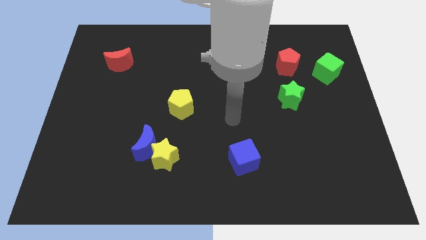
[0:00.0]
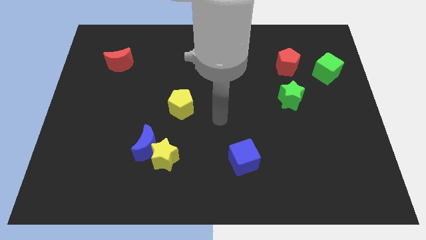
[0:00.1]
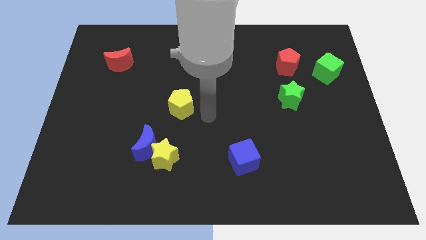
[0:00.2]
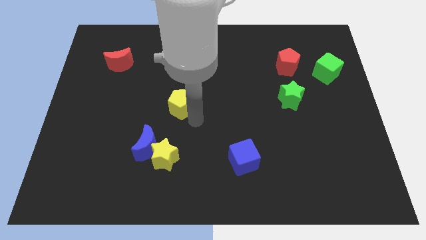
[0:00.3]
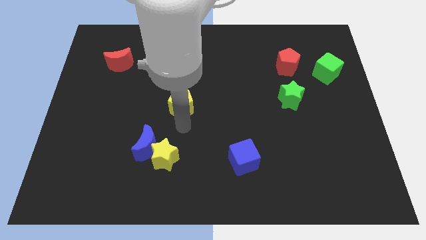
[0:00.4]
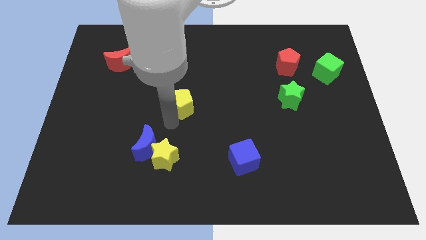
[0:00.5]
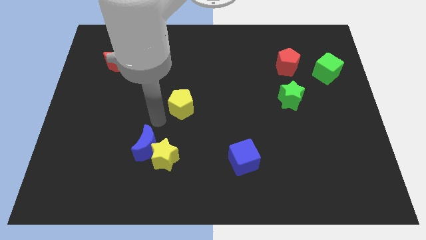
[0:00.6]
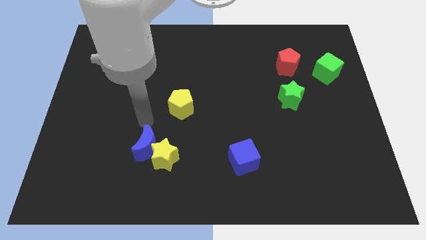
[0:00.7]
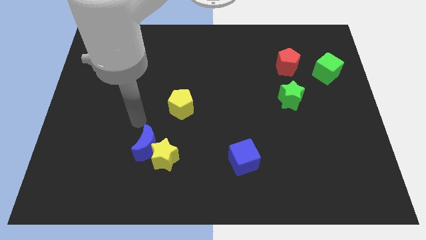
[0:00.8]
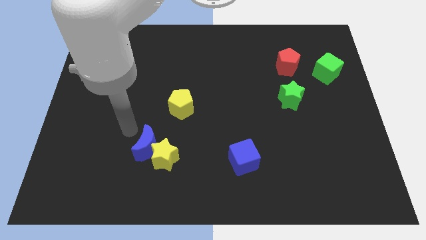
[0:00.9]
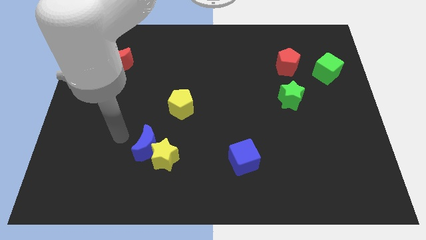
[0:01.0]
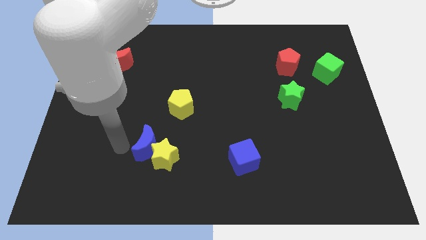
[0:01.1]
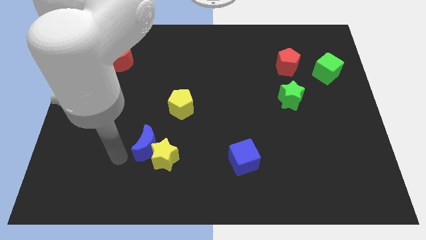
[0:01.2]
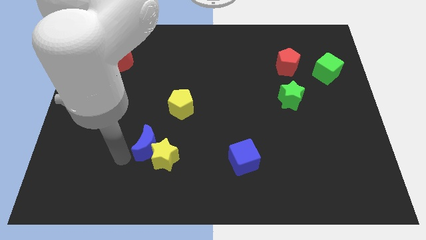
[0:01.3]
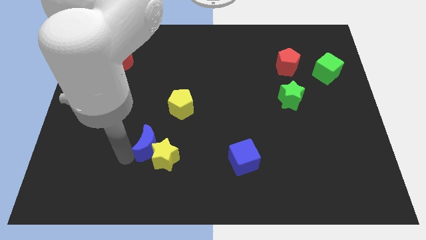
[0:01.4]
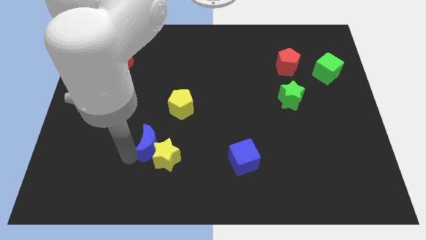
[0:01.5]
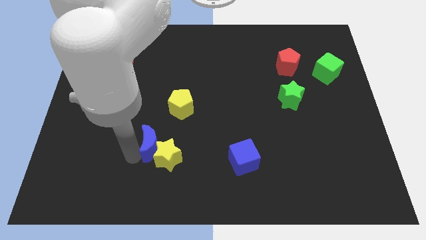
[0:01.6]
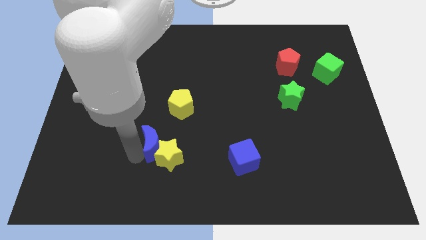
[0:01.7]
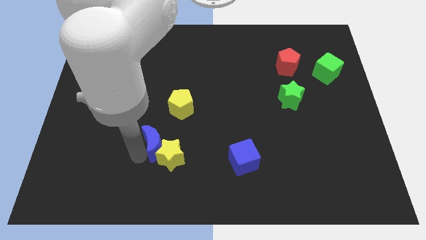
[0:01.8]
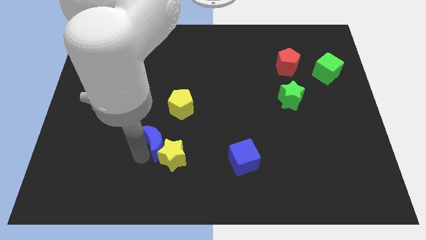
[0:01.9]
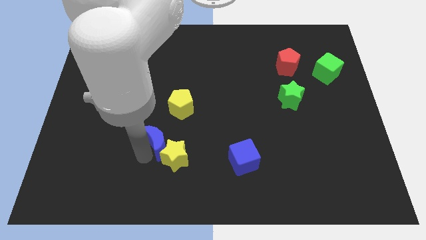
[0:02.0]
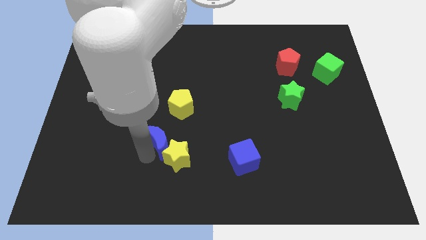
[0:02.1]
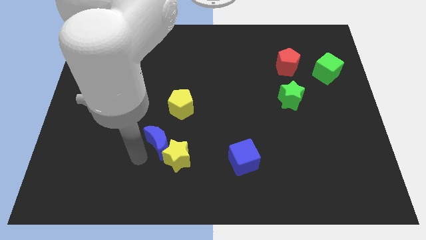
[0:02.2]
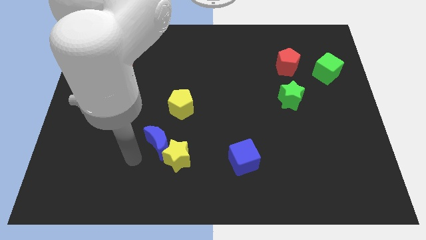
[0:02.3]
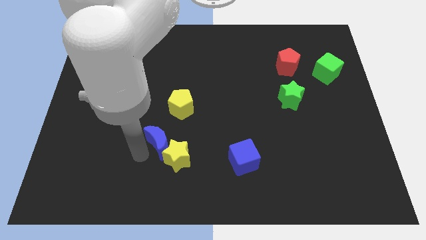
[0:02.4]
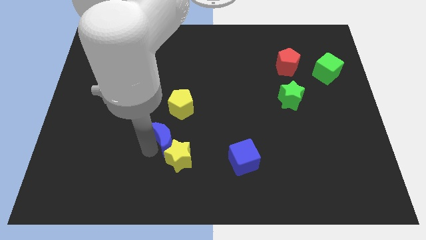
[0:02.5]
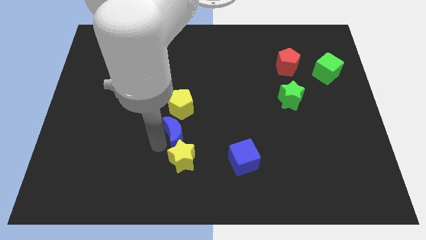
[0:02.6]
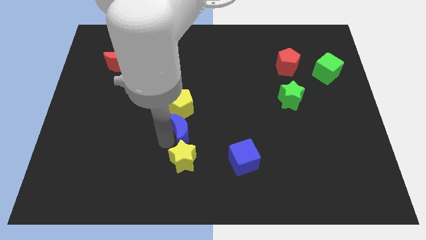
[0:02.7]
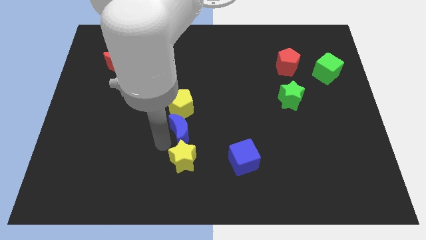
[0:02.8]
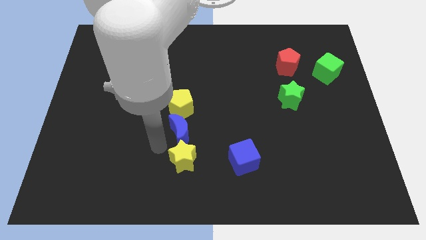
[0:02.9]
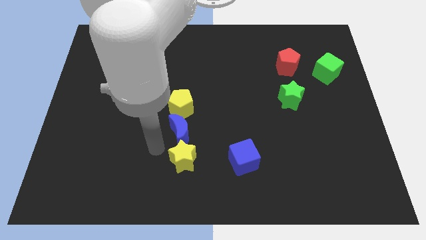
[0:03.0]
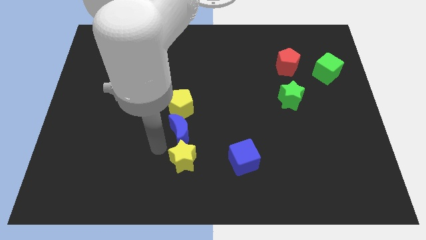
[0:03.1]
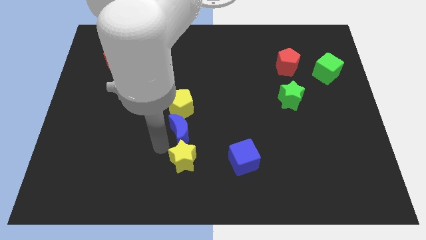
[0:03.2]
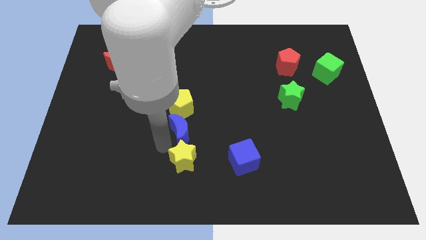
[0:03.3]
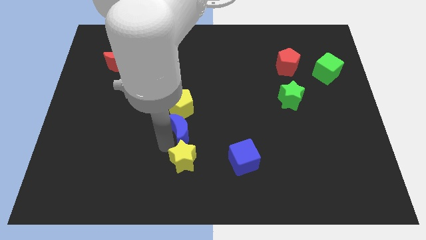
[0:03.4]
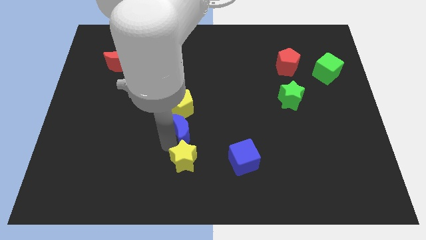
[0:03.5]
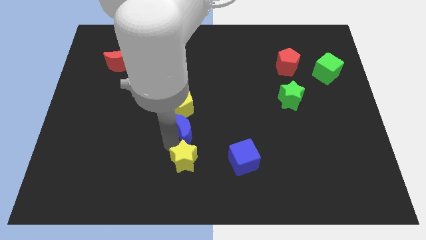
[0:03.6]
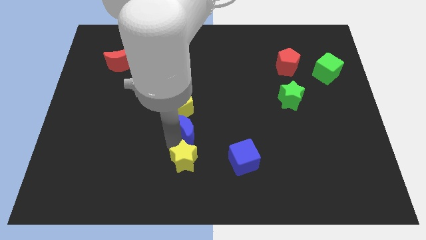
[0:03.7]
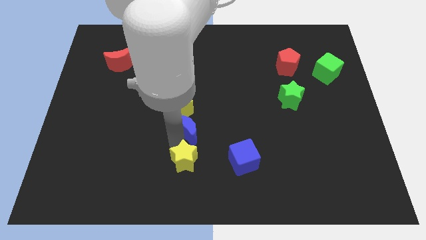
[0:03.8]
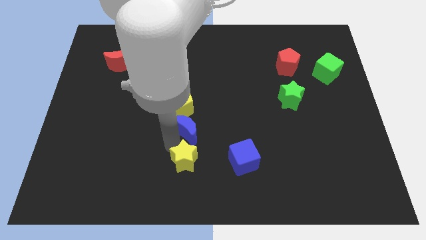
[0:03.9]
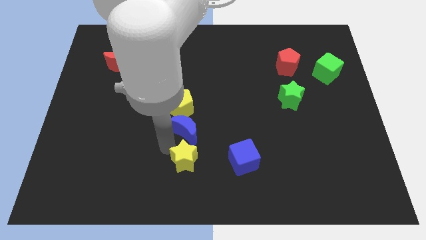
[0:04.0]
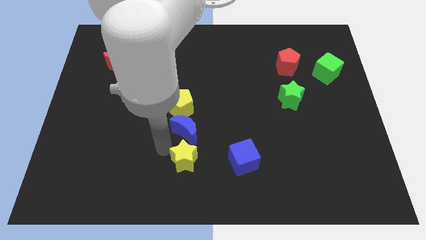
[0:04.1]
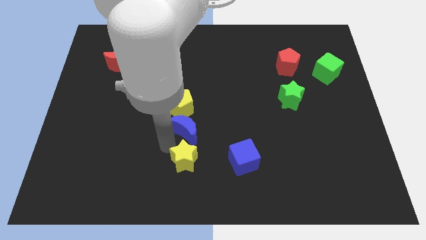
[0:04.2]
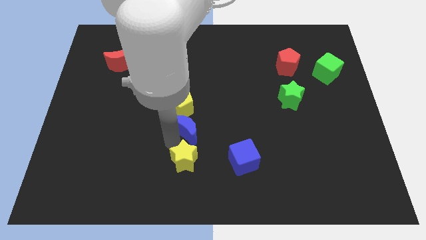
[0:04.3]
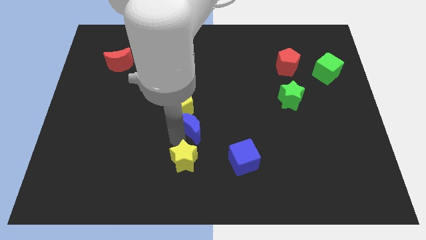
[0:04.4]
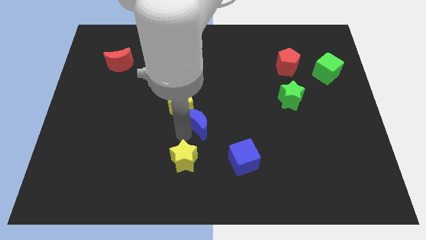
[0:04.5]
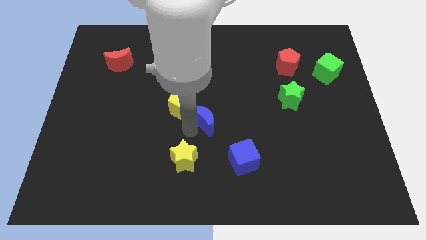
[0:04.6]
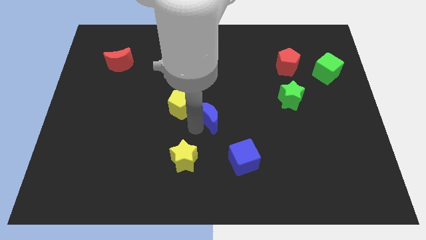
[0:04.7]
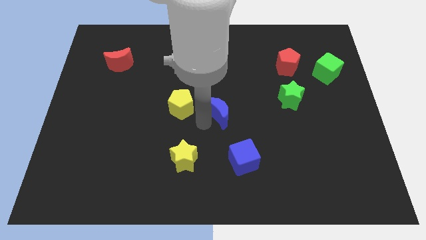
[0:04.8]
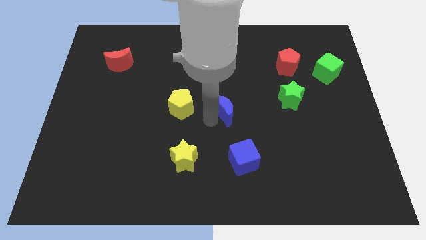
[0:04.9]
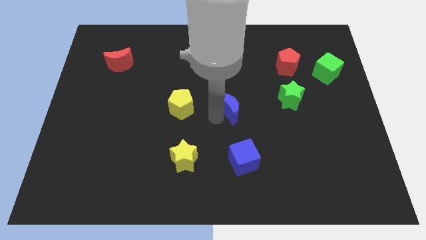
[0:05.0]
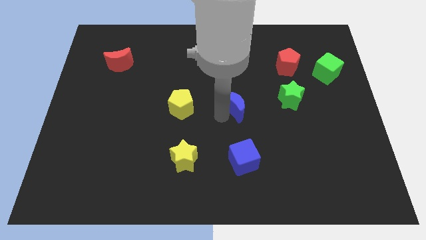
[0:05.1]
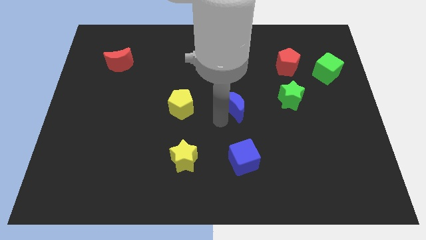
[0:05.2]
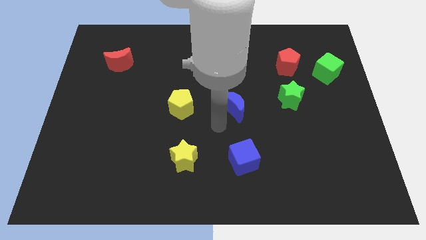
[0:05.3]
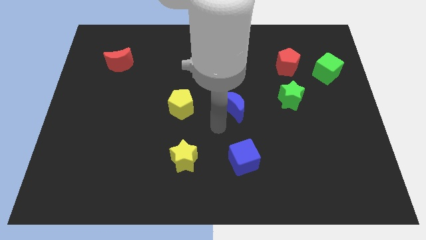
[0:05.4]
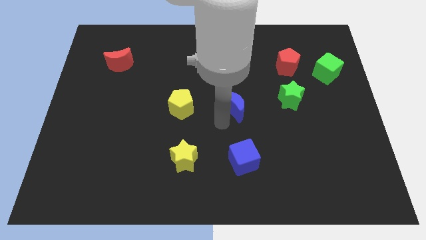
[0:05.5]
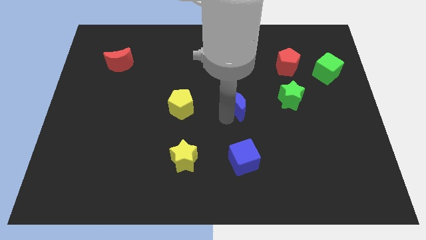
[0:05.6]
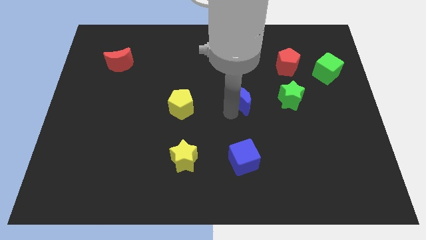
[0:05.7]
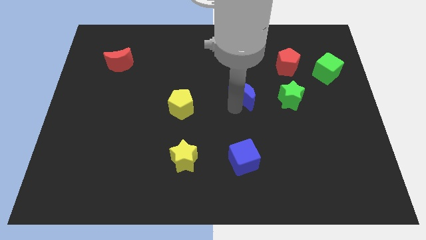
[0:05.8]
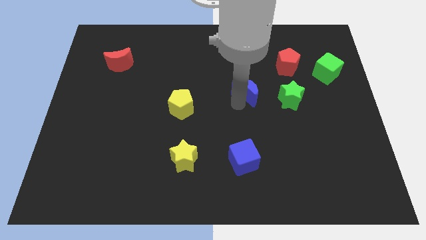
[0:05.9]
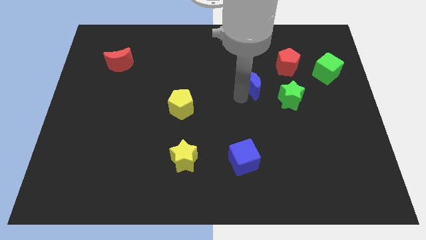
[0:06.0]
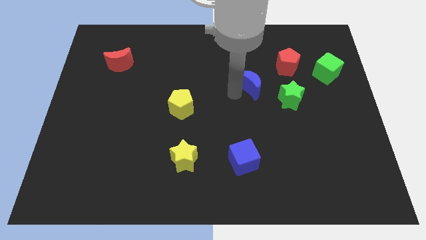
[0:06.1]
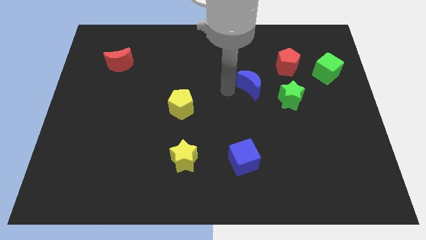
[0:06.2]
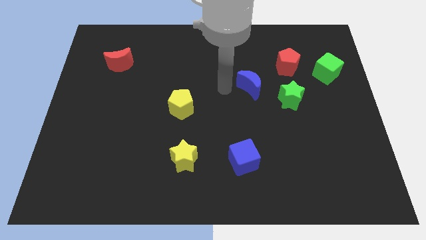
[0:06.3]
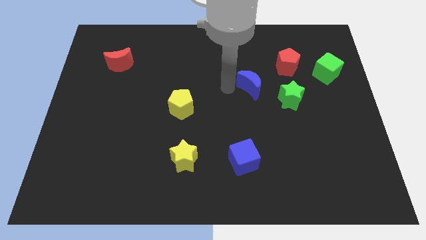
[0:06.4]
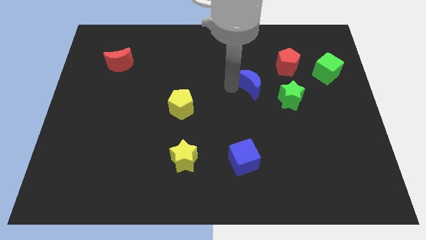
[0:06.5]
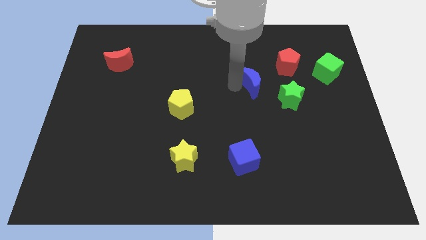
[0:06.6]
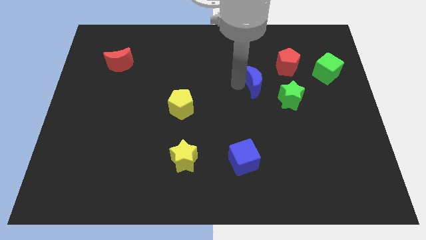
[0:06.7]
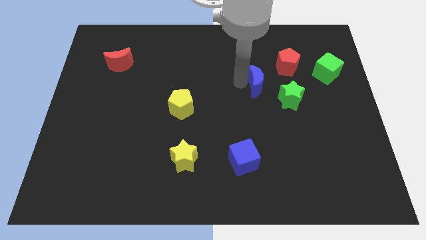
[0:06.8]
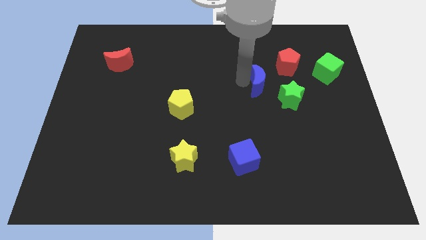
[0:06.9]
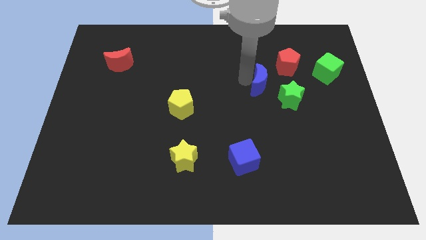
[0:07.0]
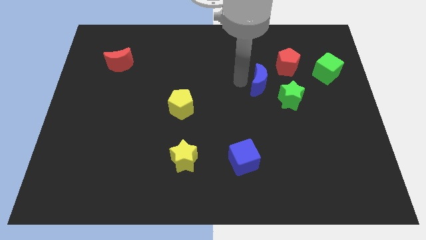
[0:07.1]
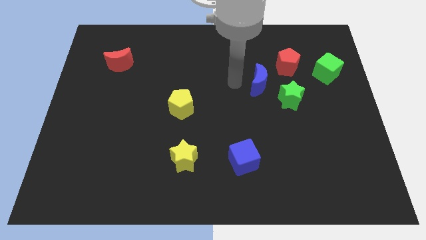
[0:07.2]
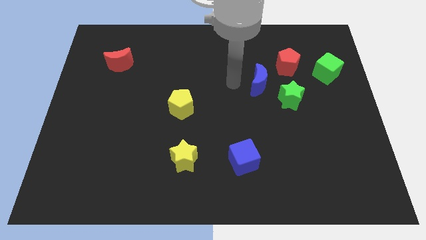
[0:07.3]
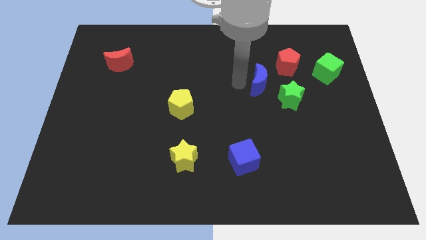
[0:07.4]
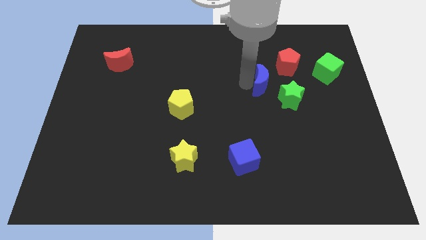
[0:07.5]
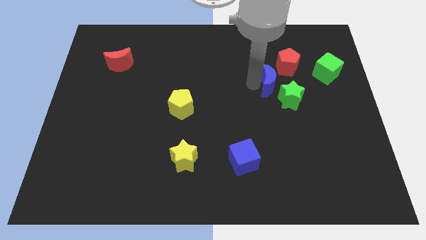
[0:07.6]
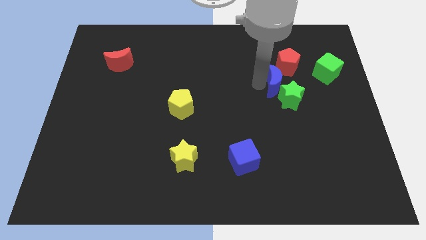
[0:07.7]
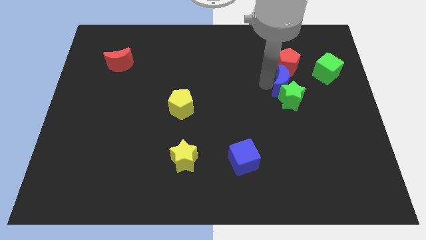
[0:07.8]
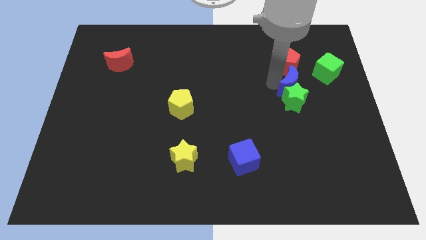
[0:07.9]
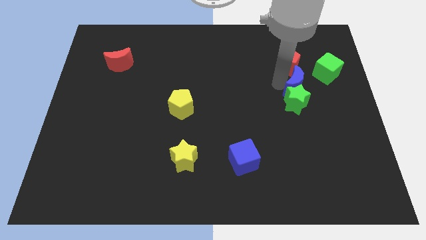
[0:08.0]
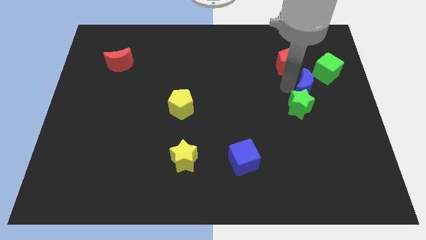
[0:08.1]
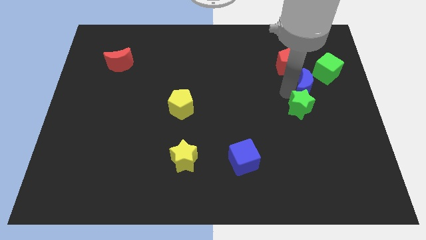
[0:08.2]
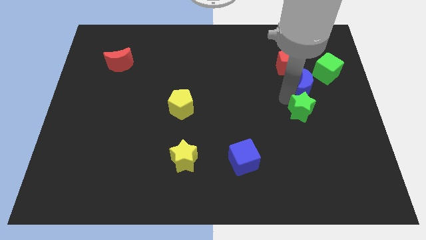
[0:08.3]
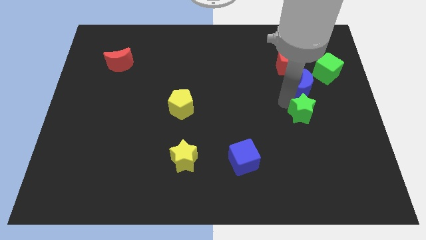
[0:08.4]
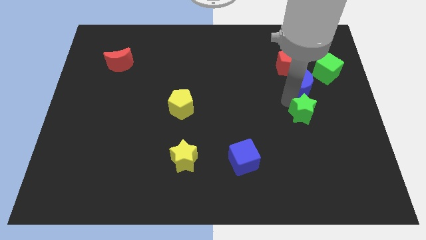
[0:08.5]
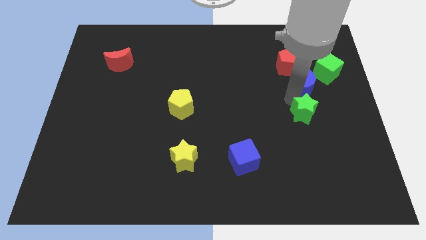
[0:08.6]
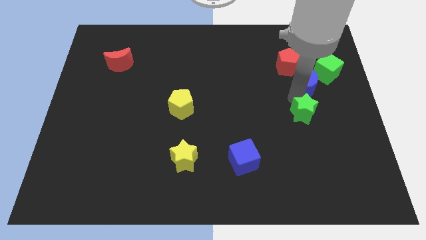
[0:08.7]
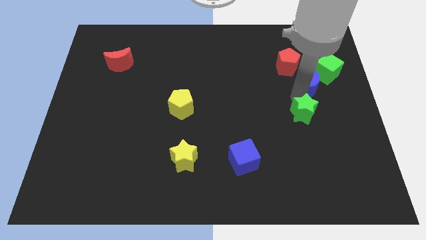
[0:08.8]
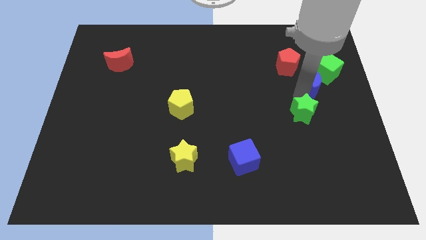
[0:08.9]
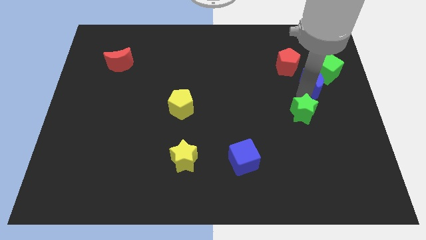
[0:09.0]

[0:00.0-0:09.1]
put the blue moon towards the green cube
